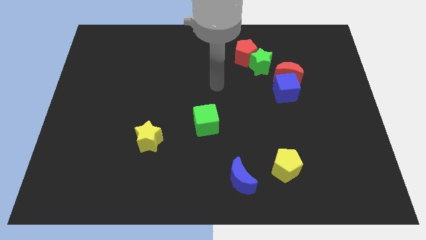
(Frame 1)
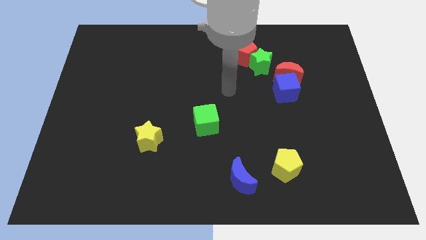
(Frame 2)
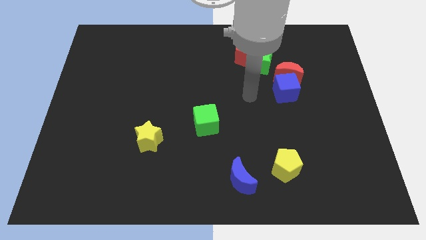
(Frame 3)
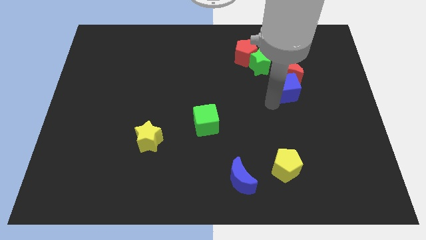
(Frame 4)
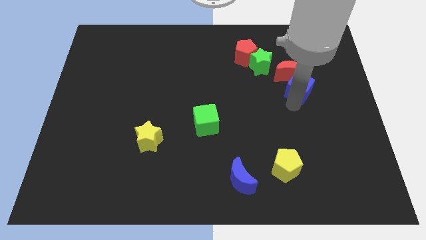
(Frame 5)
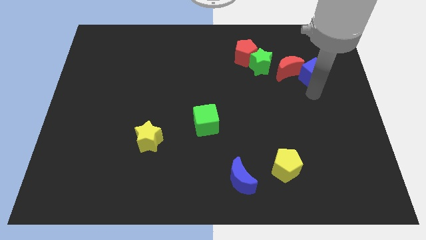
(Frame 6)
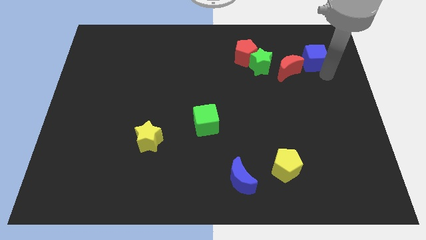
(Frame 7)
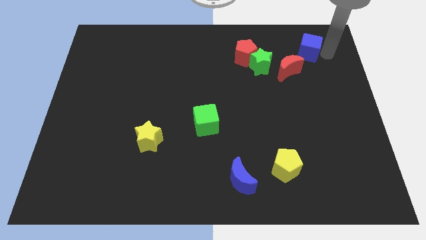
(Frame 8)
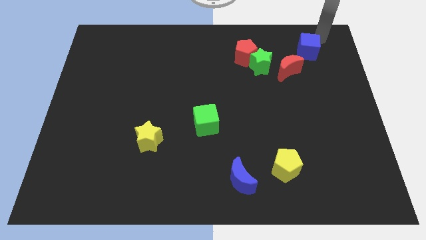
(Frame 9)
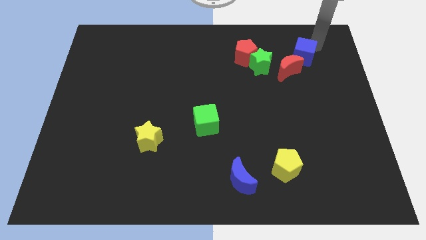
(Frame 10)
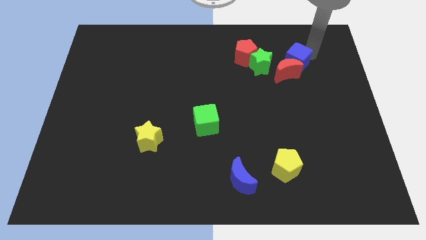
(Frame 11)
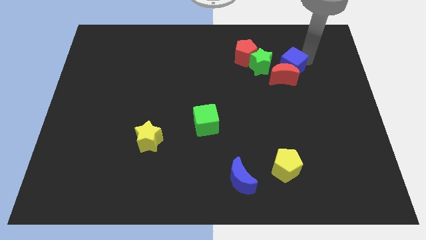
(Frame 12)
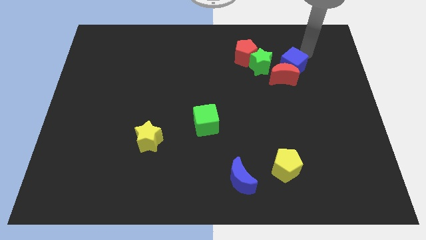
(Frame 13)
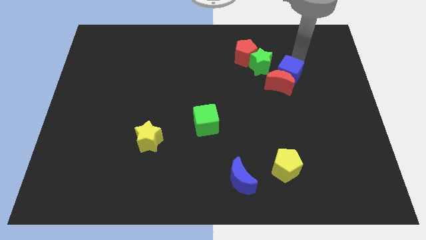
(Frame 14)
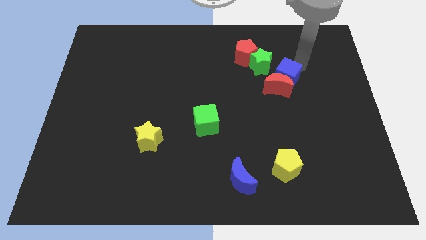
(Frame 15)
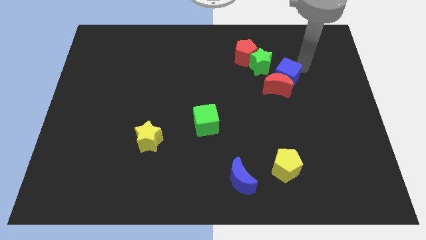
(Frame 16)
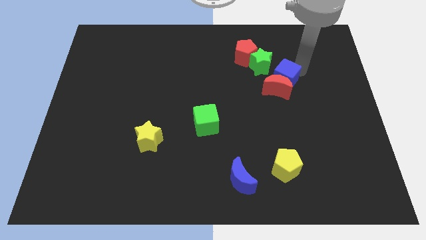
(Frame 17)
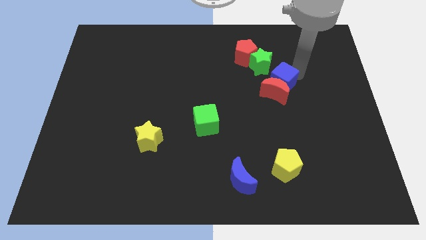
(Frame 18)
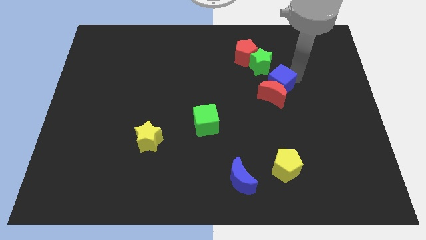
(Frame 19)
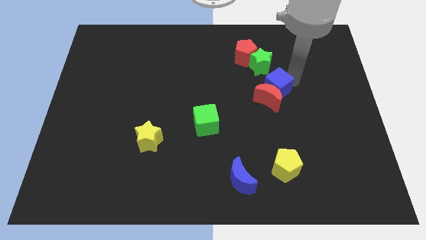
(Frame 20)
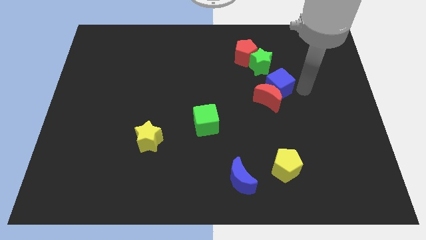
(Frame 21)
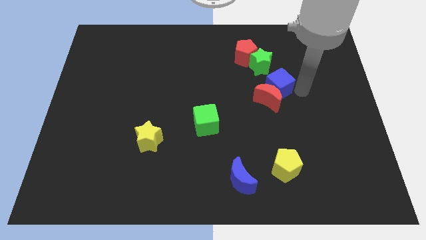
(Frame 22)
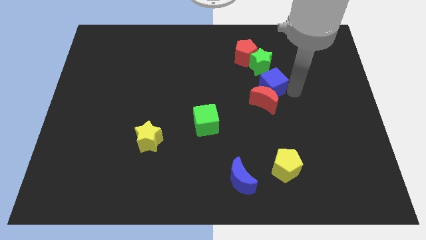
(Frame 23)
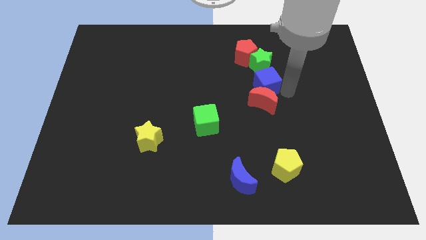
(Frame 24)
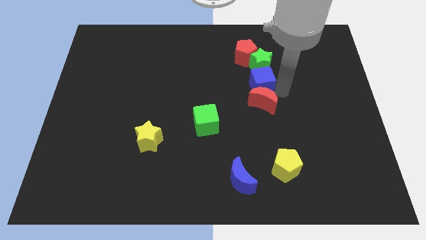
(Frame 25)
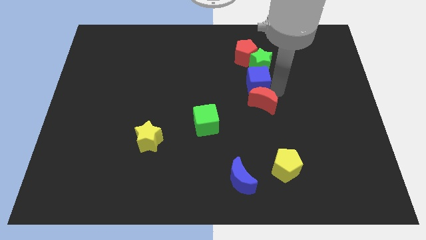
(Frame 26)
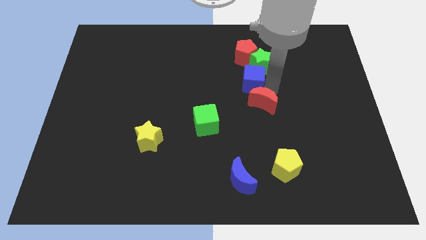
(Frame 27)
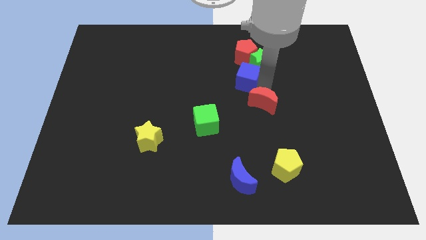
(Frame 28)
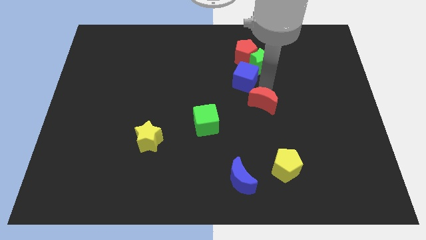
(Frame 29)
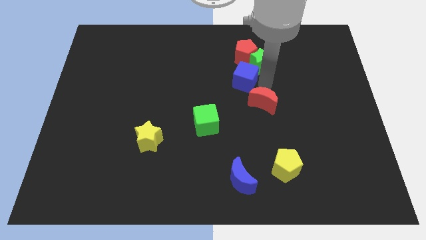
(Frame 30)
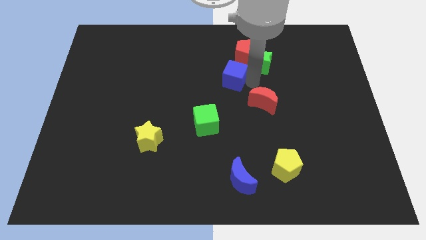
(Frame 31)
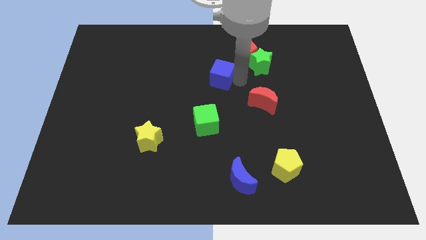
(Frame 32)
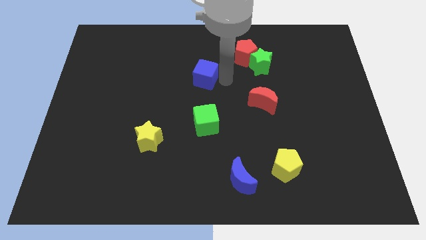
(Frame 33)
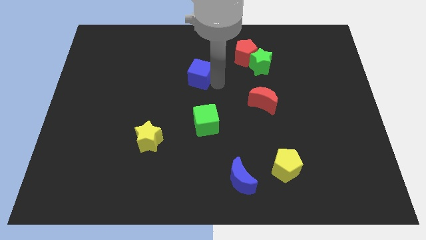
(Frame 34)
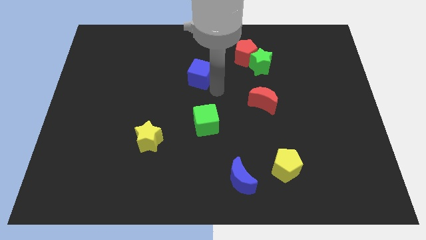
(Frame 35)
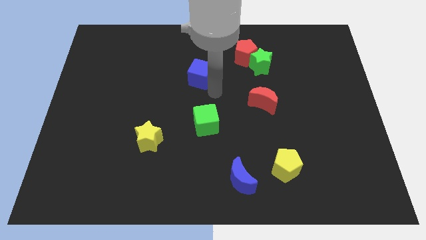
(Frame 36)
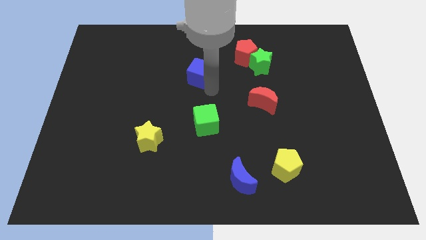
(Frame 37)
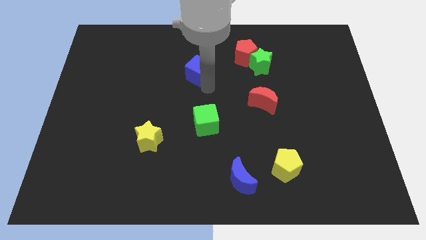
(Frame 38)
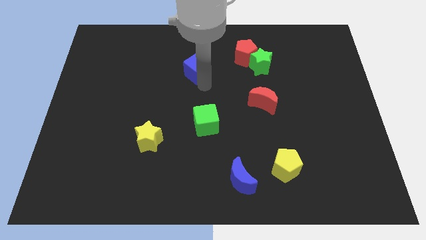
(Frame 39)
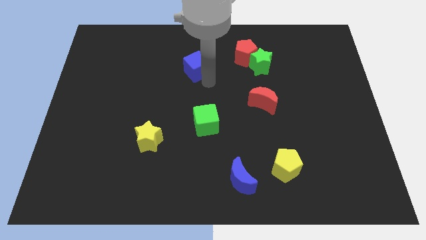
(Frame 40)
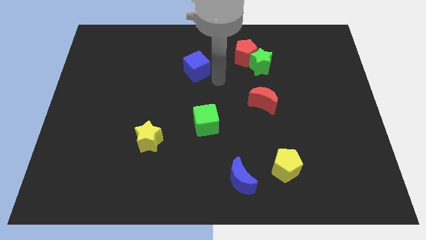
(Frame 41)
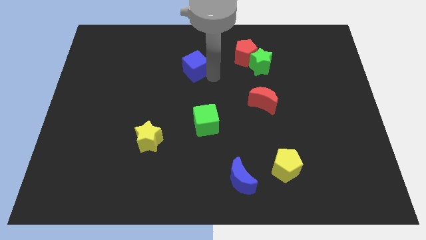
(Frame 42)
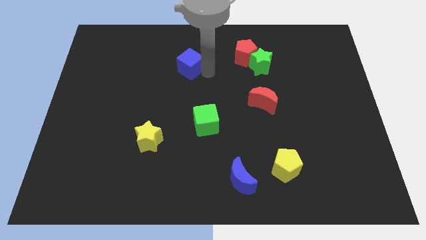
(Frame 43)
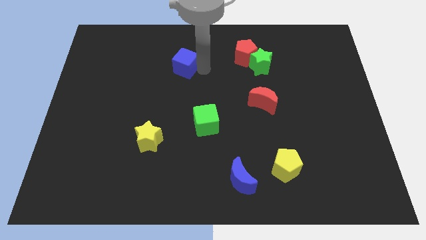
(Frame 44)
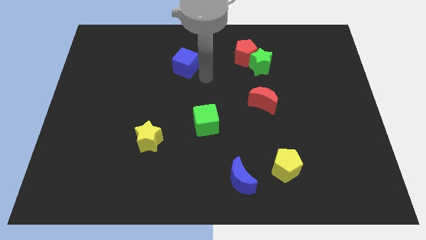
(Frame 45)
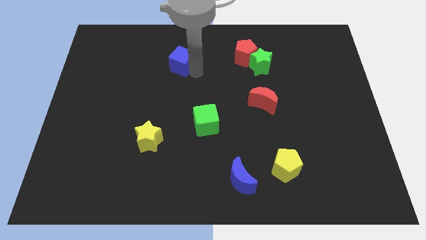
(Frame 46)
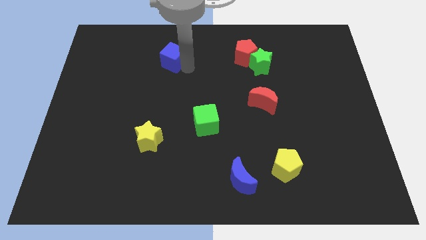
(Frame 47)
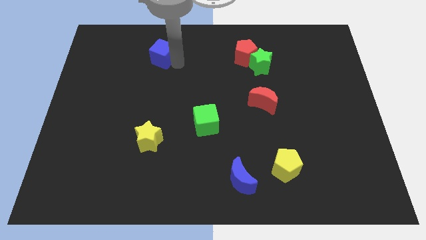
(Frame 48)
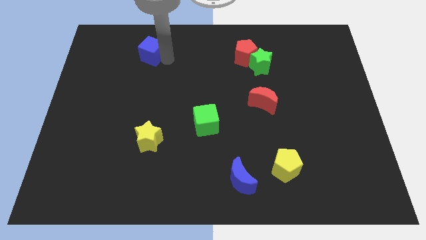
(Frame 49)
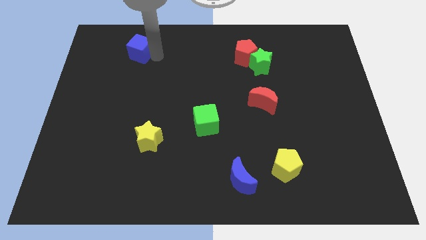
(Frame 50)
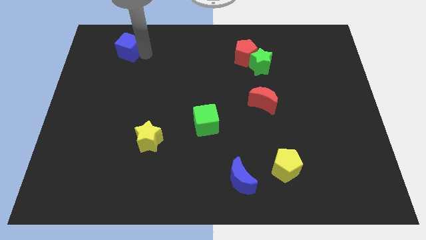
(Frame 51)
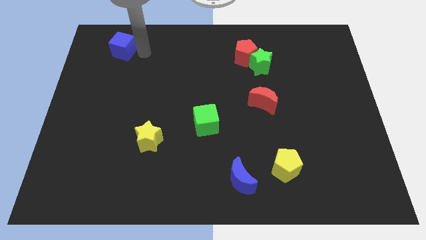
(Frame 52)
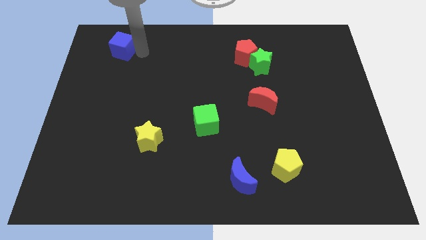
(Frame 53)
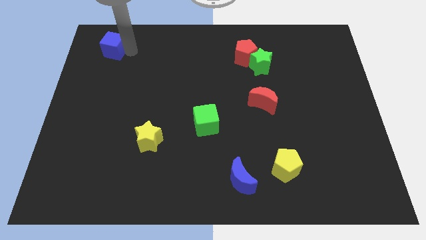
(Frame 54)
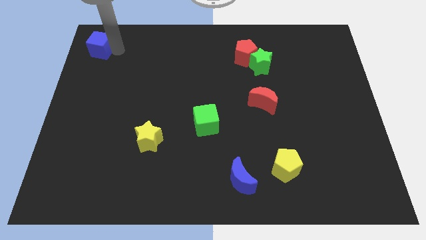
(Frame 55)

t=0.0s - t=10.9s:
push the blue cube to the upper left corner

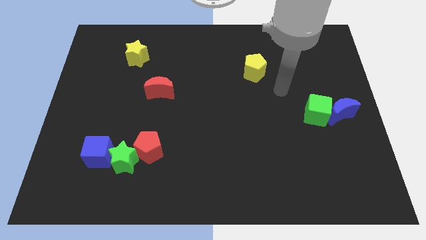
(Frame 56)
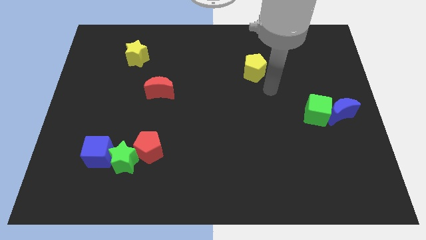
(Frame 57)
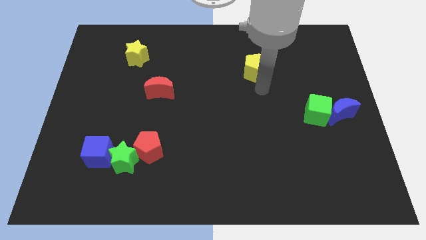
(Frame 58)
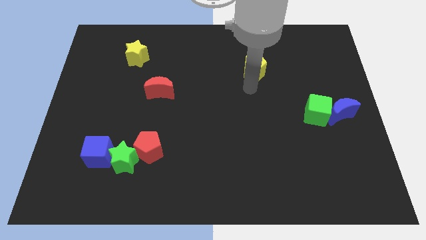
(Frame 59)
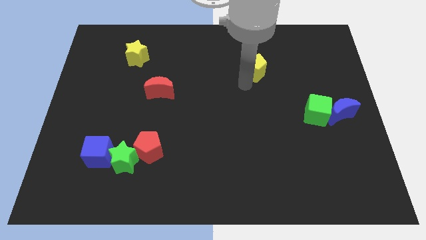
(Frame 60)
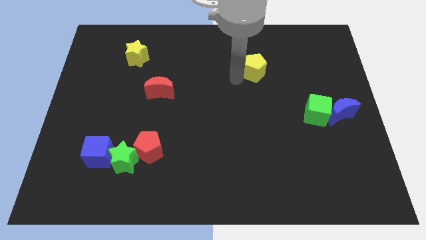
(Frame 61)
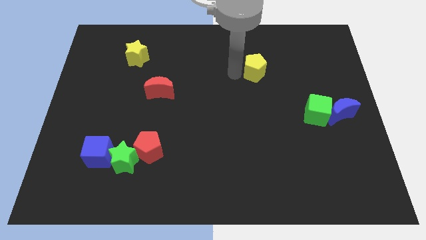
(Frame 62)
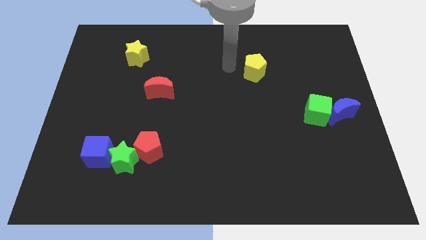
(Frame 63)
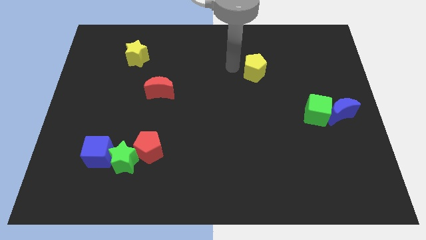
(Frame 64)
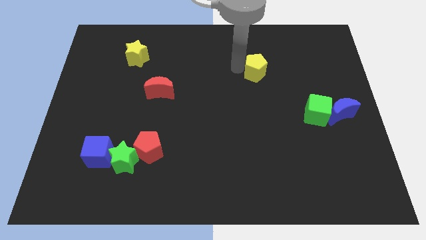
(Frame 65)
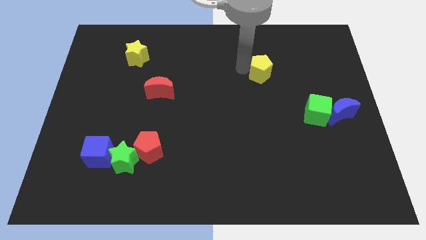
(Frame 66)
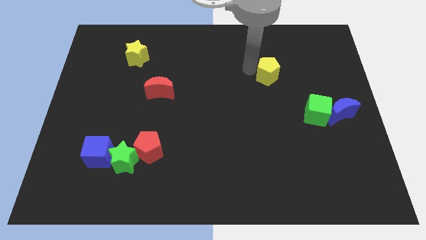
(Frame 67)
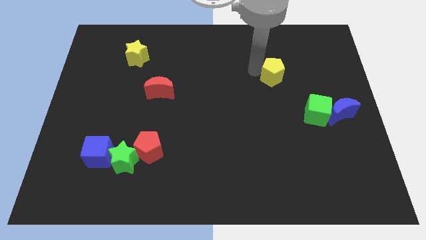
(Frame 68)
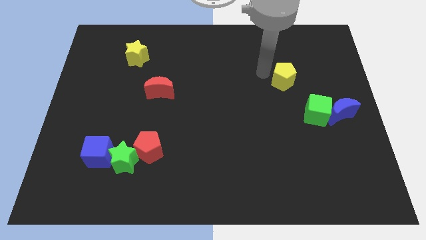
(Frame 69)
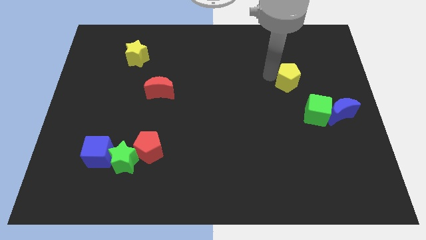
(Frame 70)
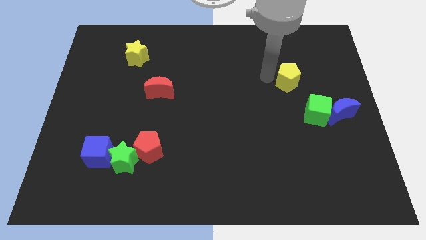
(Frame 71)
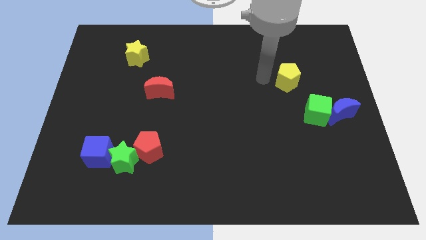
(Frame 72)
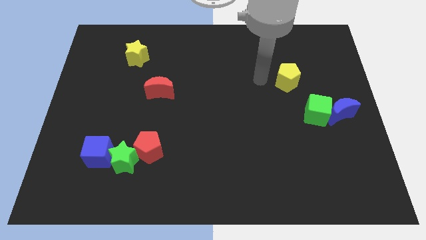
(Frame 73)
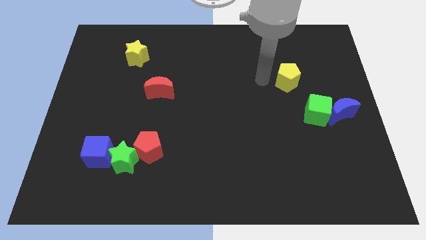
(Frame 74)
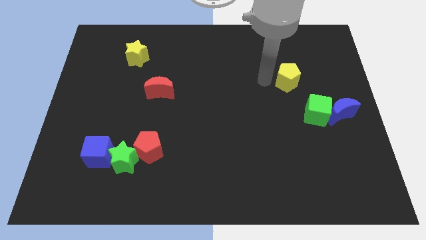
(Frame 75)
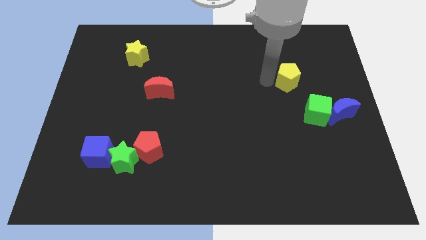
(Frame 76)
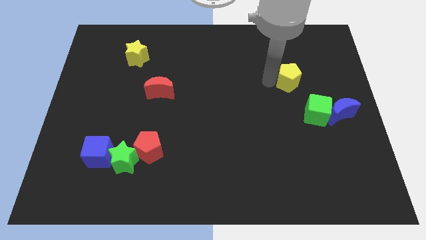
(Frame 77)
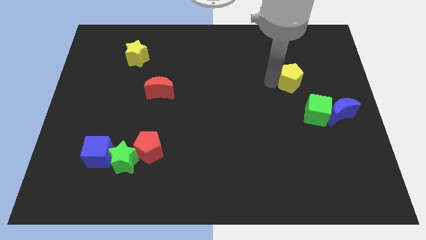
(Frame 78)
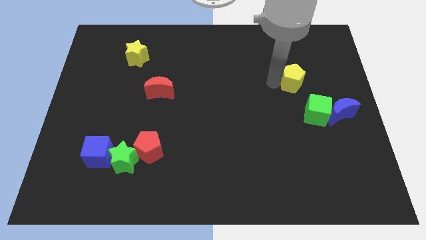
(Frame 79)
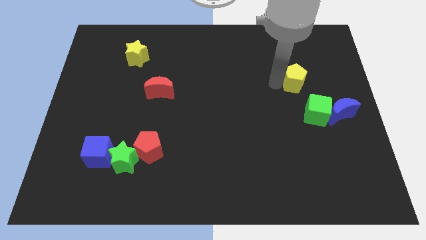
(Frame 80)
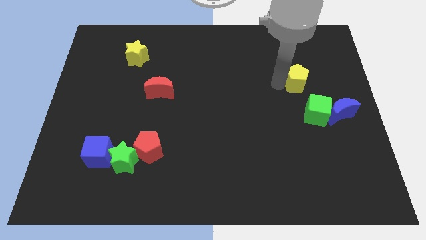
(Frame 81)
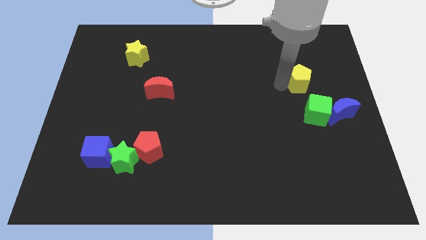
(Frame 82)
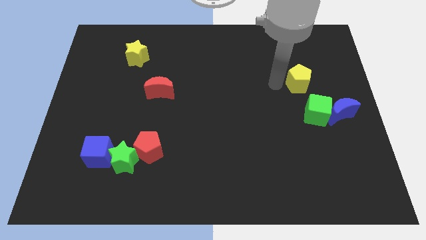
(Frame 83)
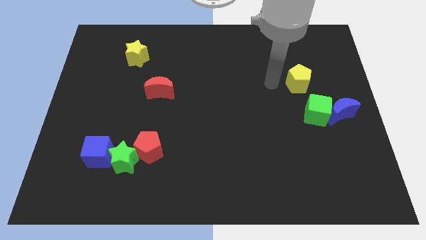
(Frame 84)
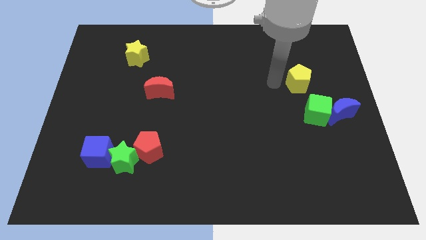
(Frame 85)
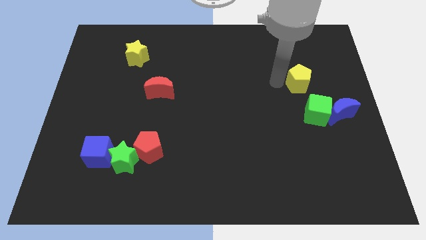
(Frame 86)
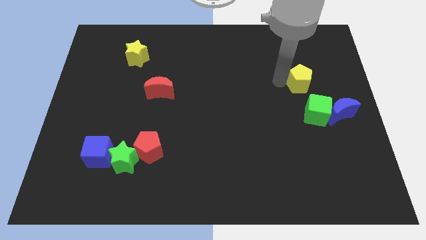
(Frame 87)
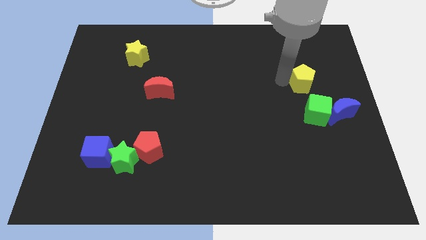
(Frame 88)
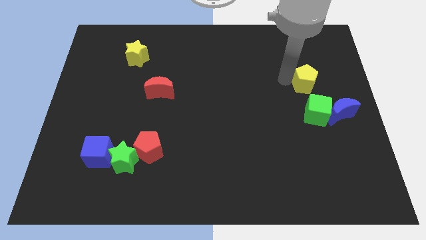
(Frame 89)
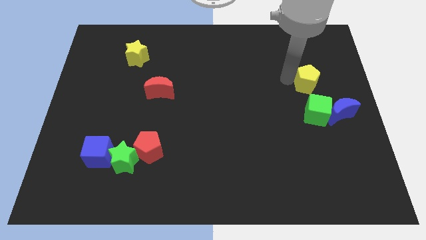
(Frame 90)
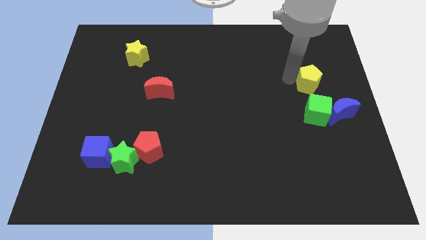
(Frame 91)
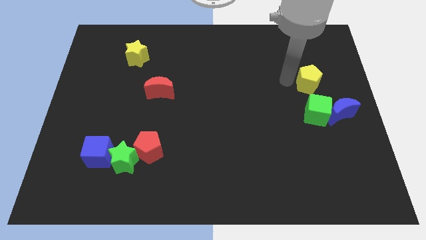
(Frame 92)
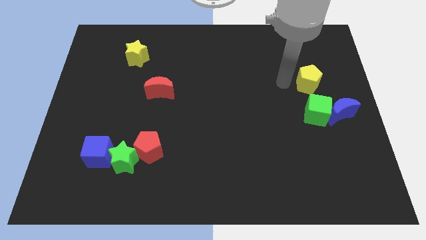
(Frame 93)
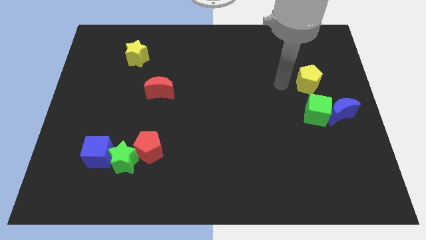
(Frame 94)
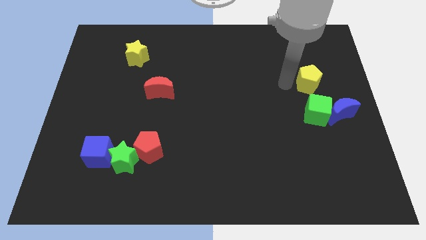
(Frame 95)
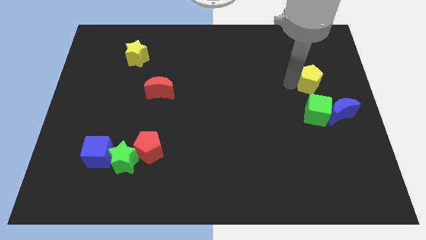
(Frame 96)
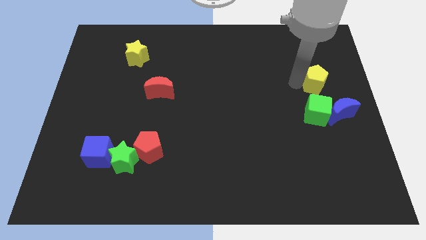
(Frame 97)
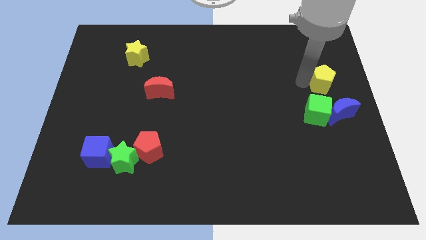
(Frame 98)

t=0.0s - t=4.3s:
push the yellow pentagon to the right side of the board
